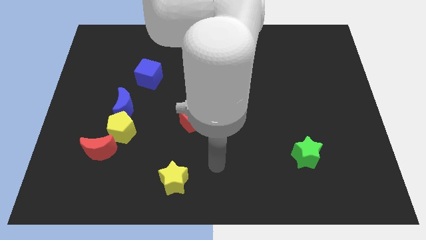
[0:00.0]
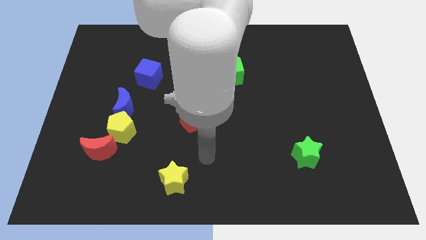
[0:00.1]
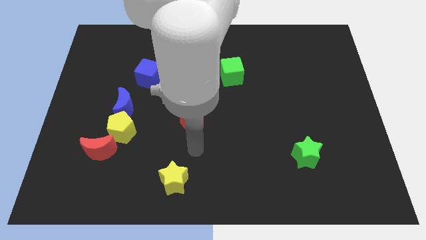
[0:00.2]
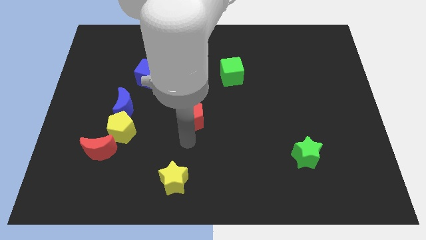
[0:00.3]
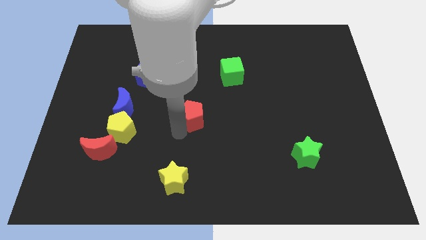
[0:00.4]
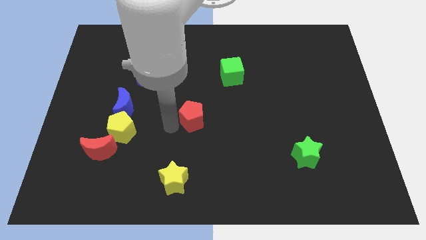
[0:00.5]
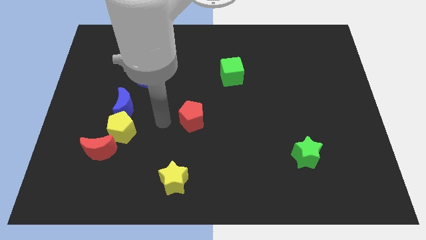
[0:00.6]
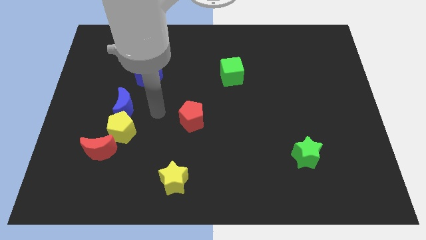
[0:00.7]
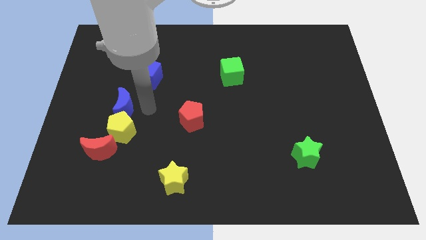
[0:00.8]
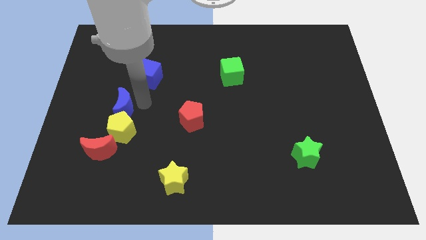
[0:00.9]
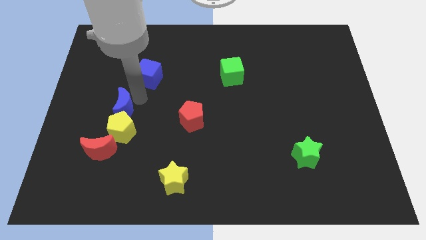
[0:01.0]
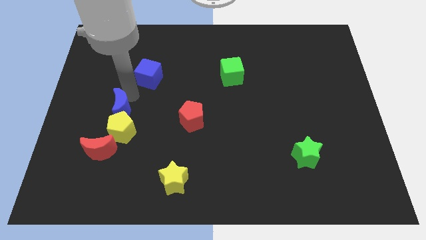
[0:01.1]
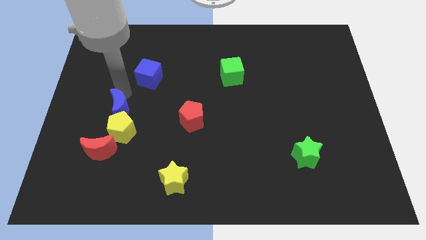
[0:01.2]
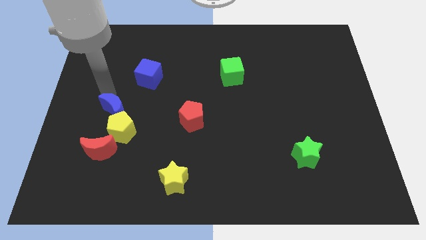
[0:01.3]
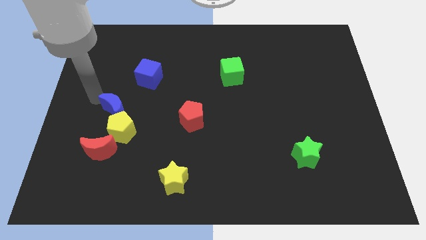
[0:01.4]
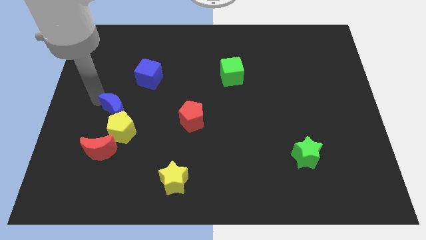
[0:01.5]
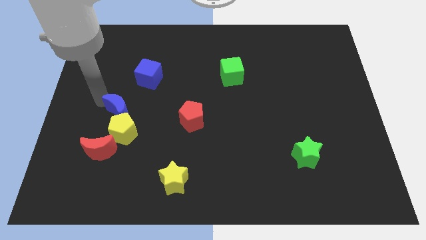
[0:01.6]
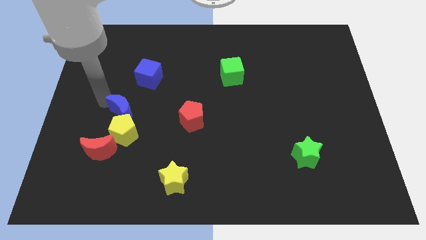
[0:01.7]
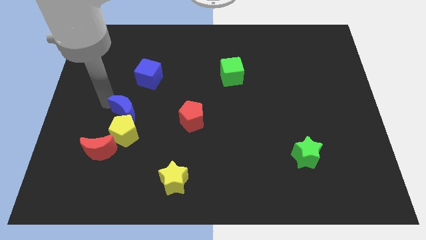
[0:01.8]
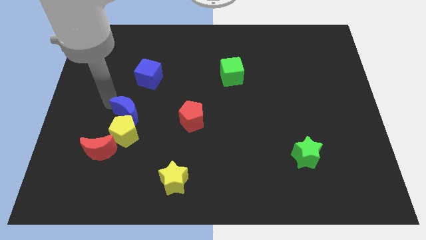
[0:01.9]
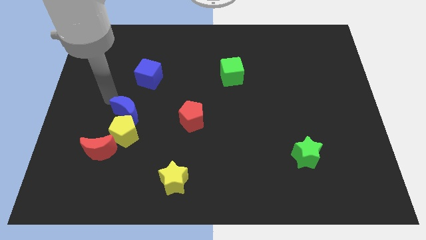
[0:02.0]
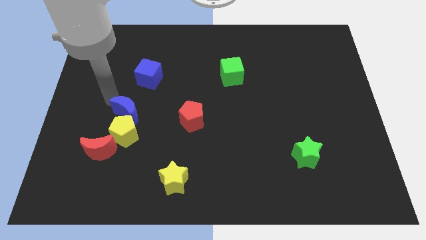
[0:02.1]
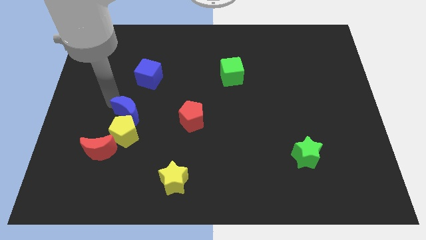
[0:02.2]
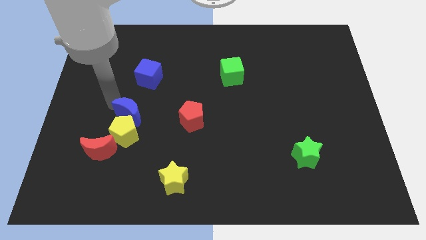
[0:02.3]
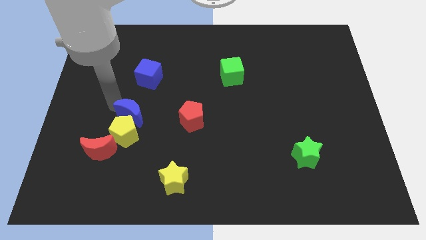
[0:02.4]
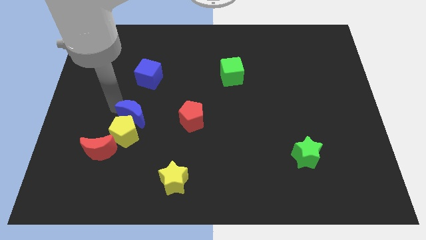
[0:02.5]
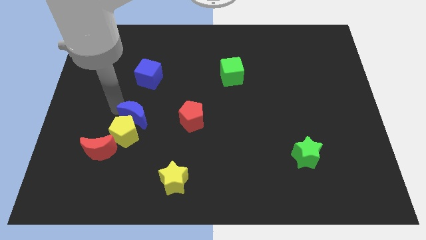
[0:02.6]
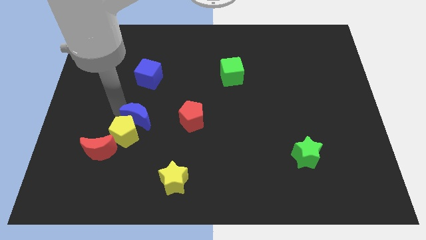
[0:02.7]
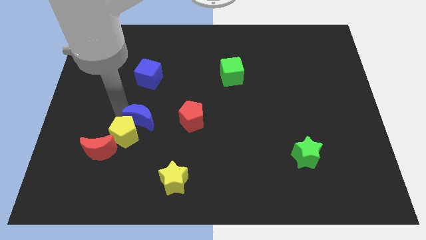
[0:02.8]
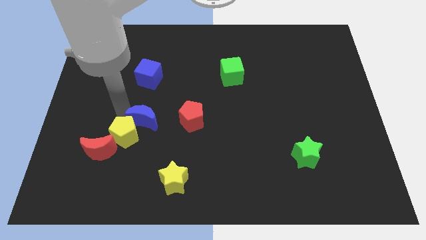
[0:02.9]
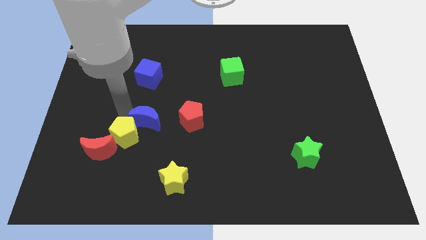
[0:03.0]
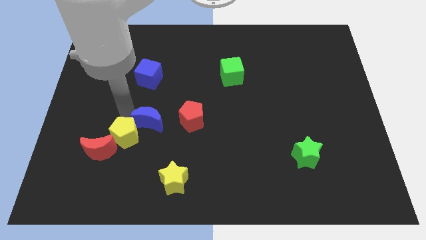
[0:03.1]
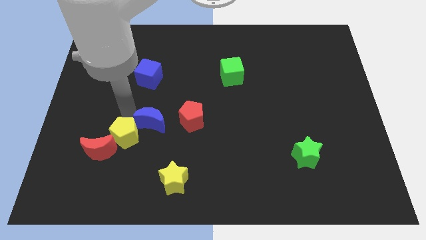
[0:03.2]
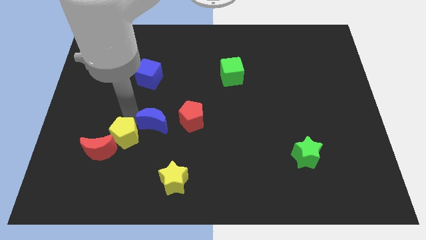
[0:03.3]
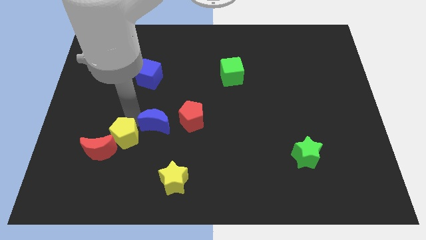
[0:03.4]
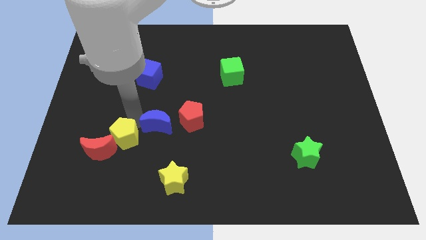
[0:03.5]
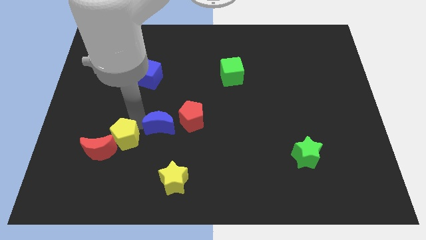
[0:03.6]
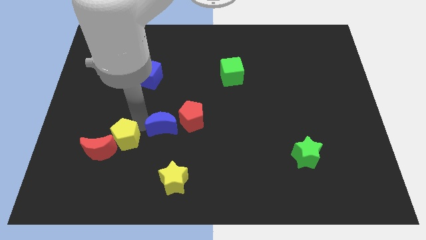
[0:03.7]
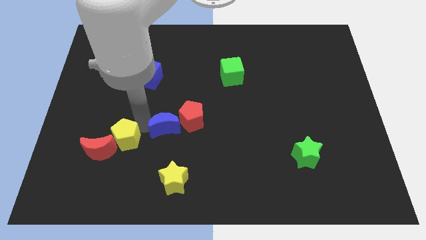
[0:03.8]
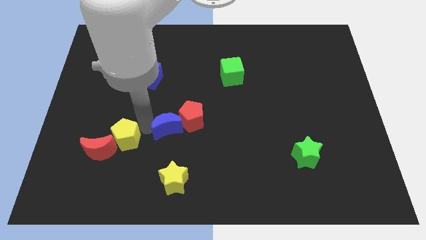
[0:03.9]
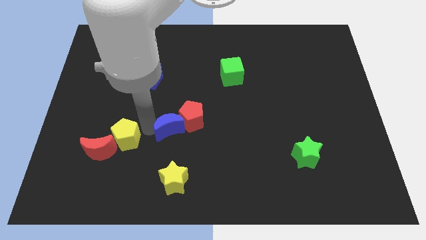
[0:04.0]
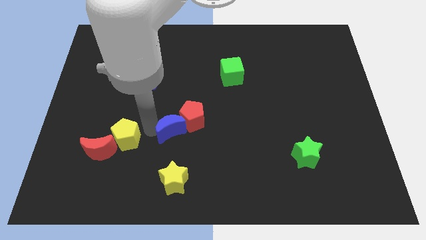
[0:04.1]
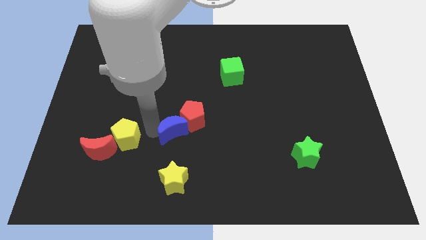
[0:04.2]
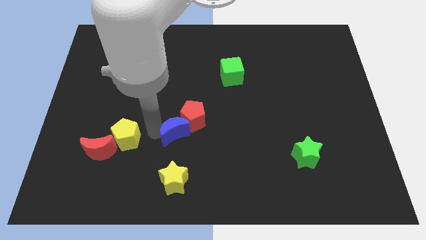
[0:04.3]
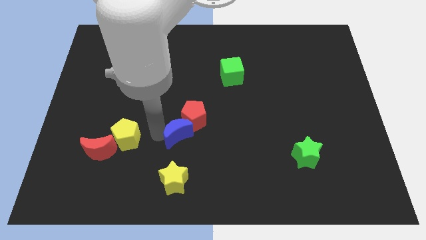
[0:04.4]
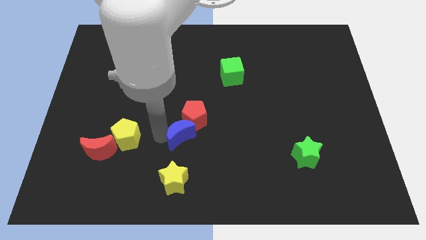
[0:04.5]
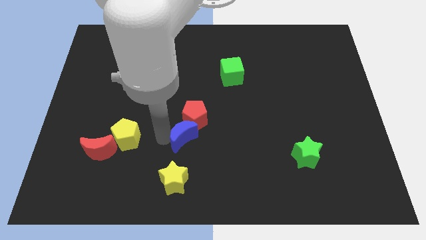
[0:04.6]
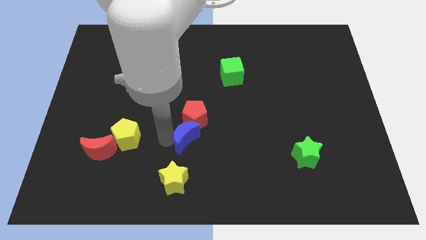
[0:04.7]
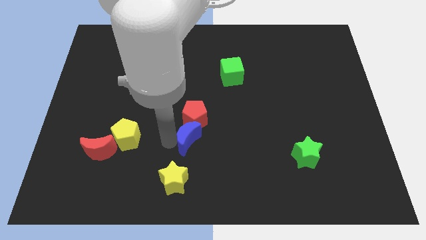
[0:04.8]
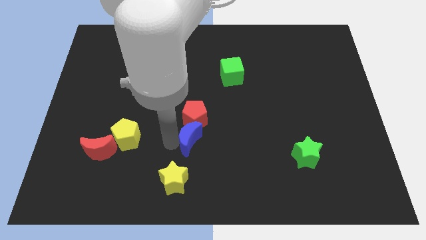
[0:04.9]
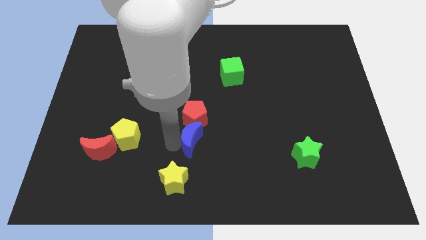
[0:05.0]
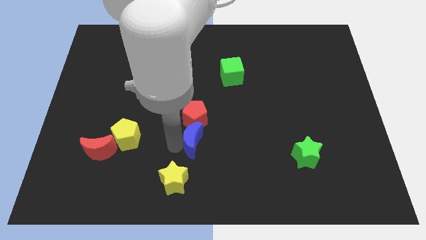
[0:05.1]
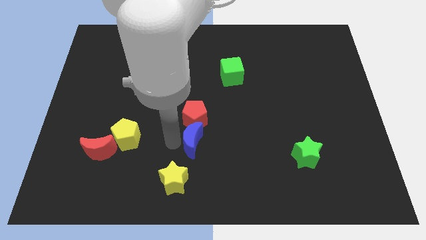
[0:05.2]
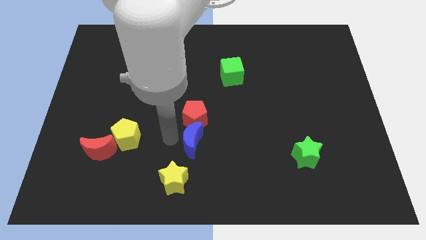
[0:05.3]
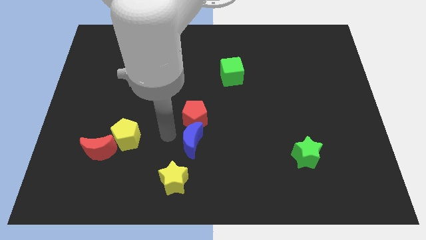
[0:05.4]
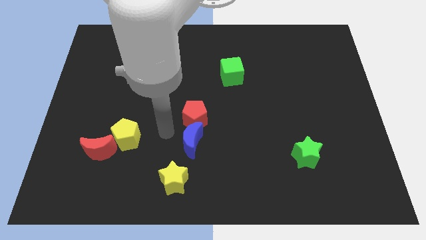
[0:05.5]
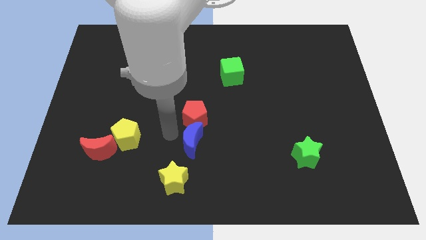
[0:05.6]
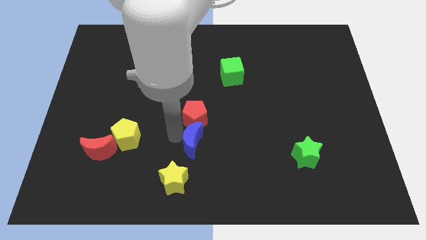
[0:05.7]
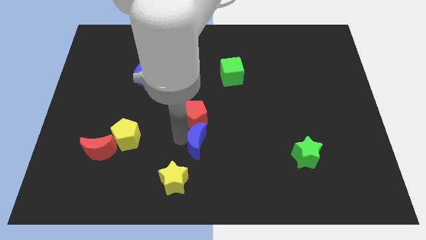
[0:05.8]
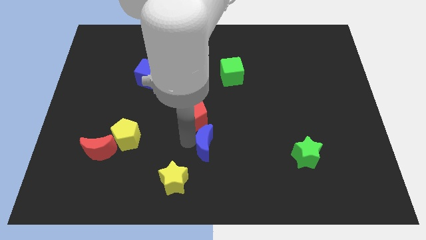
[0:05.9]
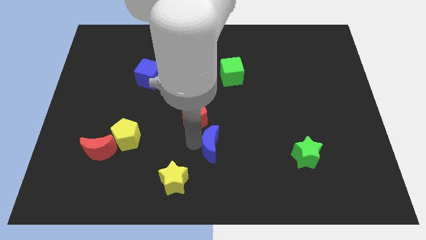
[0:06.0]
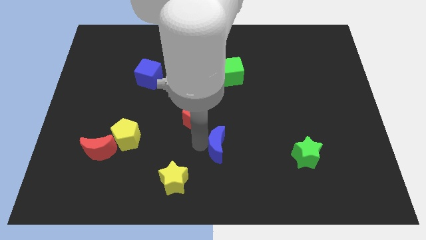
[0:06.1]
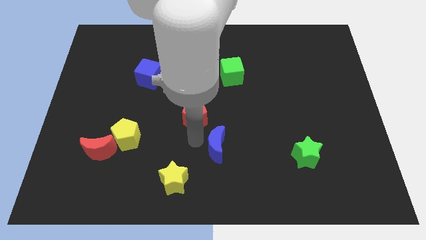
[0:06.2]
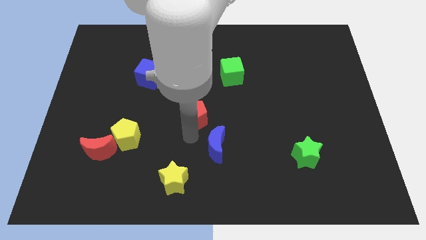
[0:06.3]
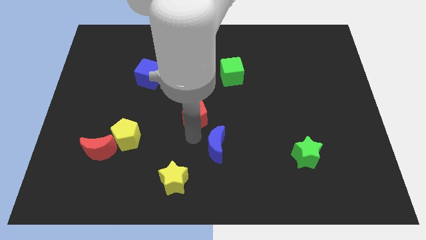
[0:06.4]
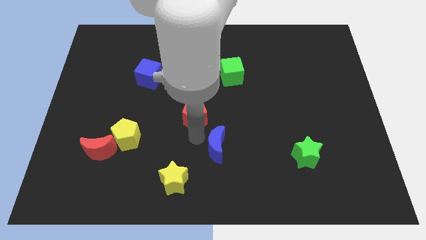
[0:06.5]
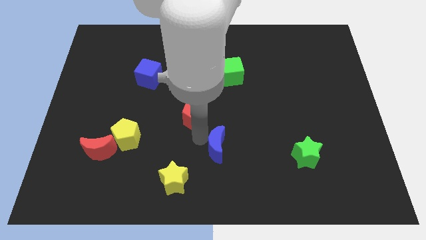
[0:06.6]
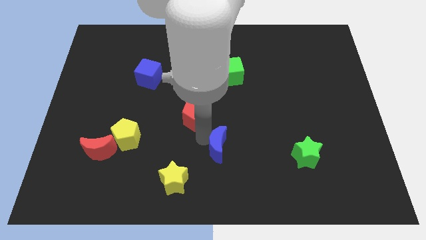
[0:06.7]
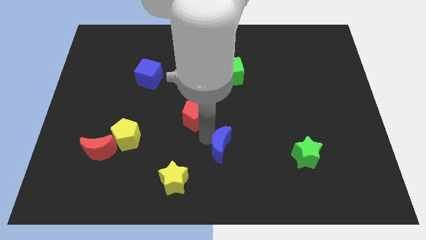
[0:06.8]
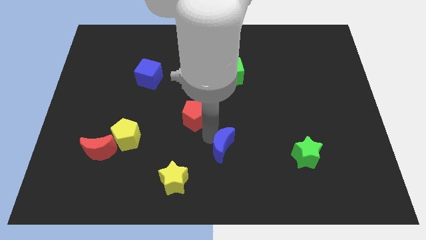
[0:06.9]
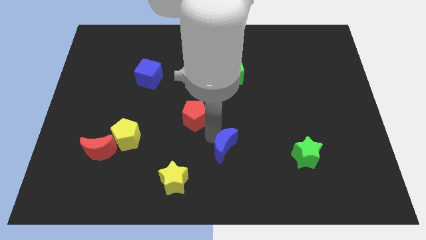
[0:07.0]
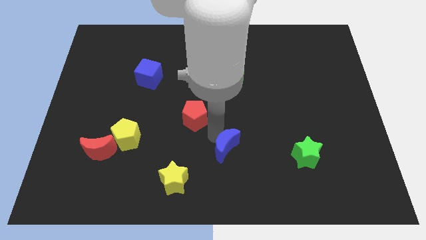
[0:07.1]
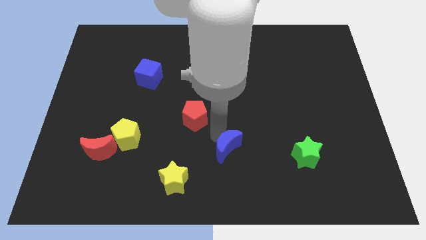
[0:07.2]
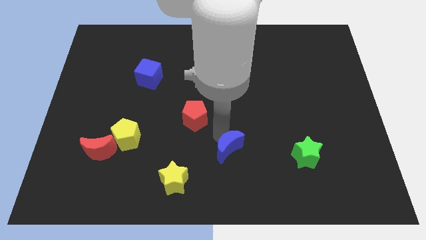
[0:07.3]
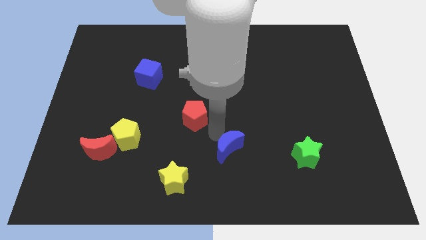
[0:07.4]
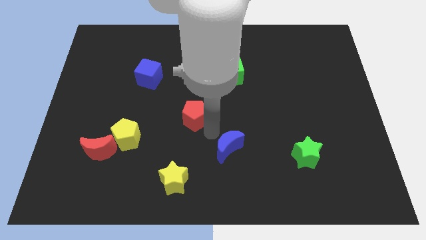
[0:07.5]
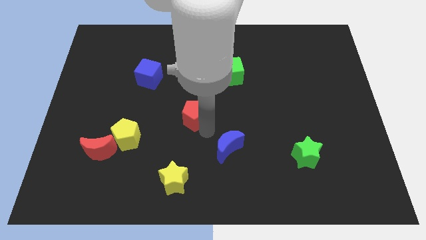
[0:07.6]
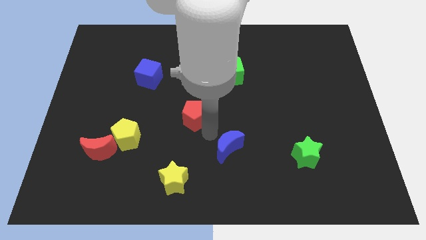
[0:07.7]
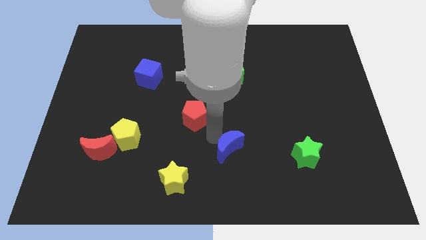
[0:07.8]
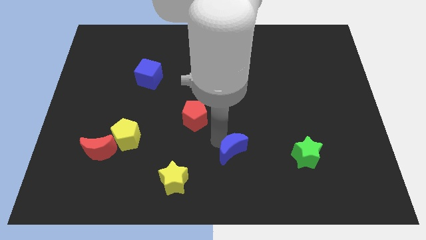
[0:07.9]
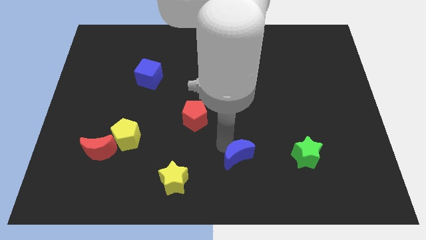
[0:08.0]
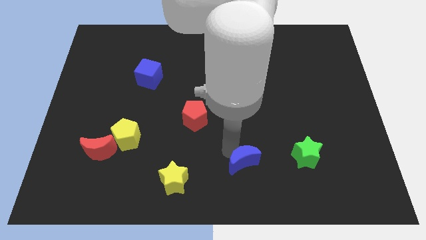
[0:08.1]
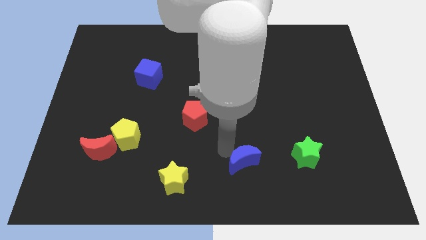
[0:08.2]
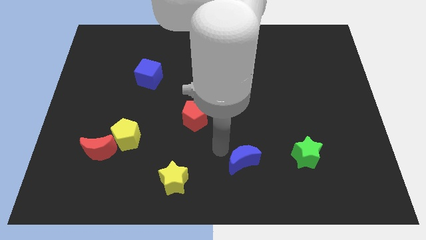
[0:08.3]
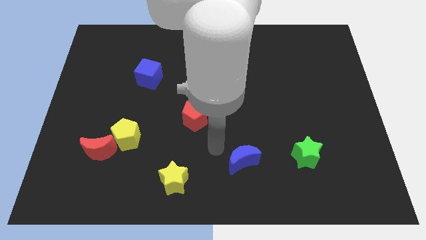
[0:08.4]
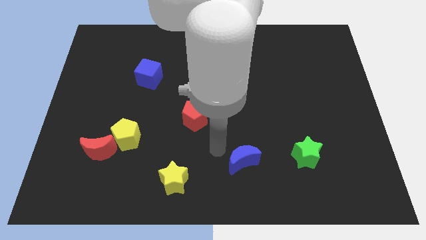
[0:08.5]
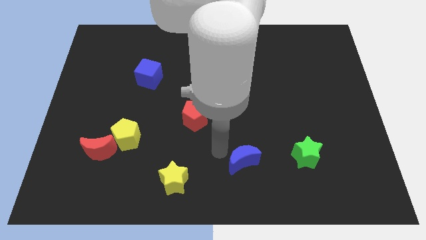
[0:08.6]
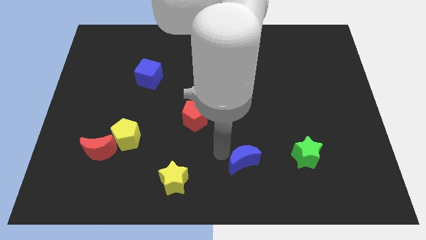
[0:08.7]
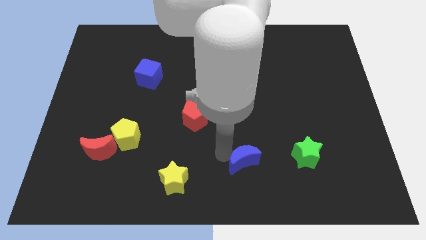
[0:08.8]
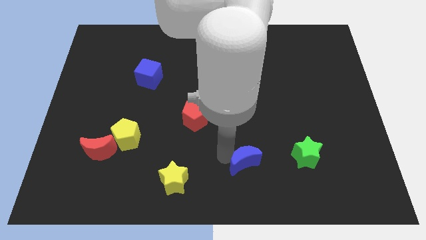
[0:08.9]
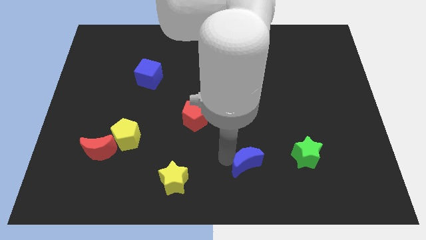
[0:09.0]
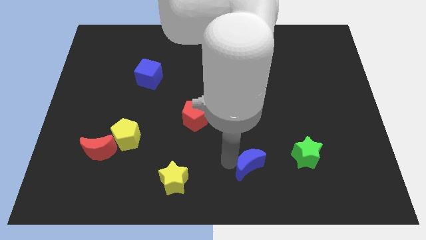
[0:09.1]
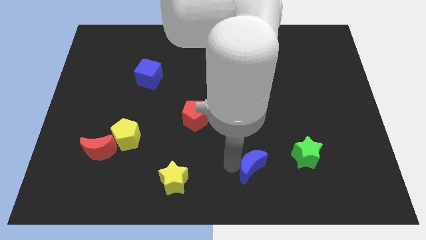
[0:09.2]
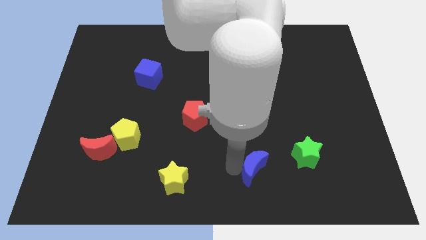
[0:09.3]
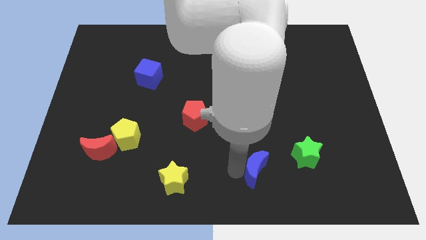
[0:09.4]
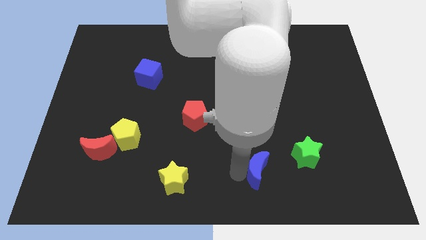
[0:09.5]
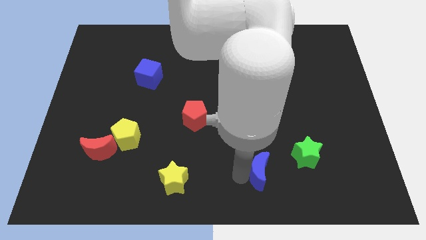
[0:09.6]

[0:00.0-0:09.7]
put the blue moon diagonally down and to the left of the green star
